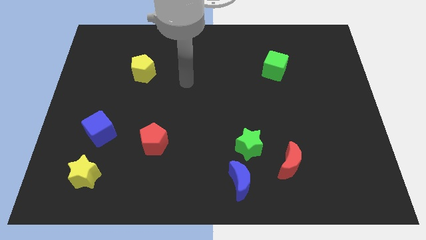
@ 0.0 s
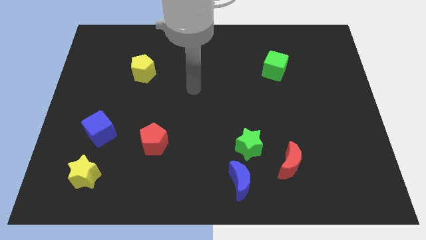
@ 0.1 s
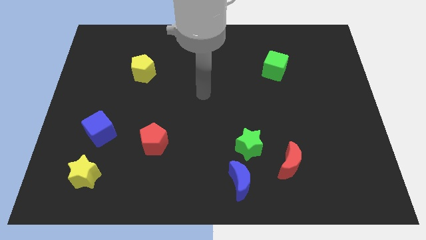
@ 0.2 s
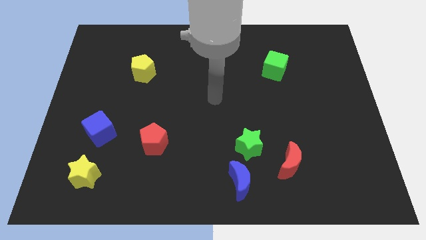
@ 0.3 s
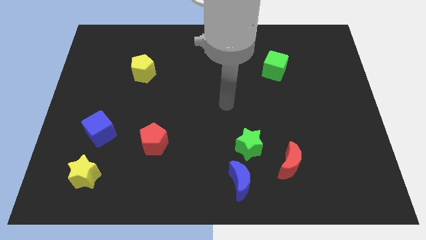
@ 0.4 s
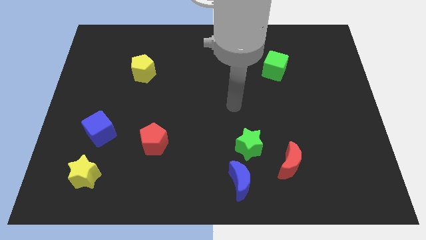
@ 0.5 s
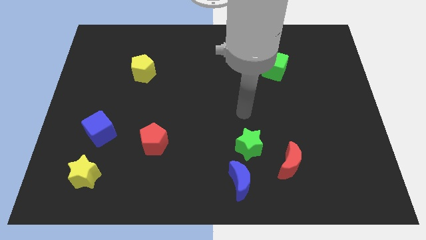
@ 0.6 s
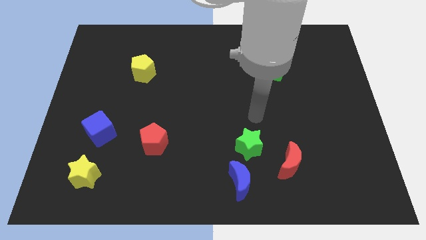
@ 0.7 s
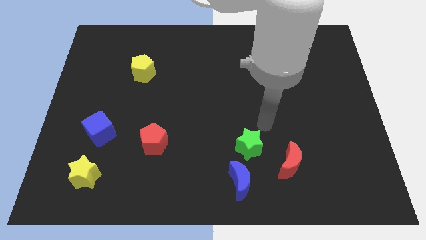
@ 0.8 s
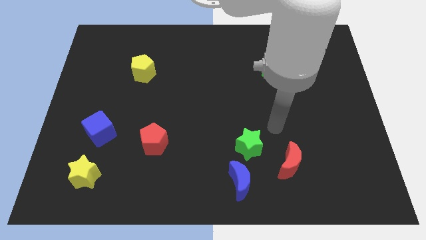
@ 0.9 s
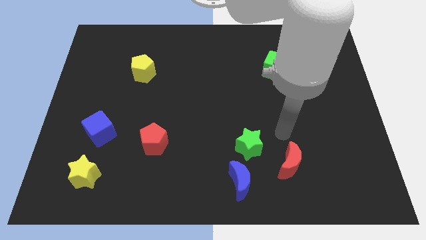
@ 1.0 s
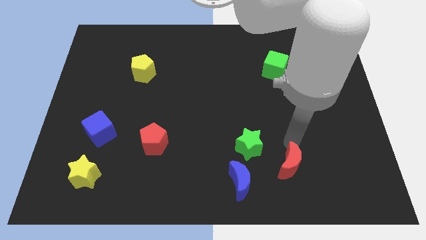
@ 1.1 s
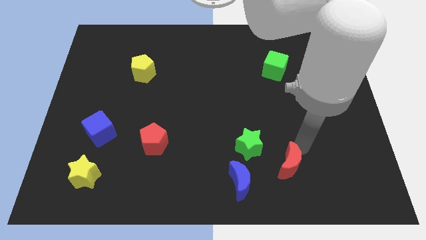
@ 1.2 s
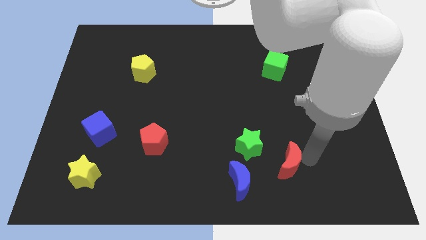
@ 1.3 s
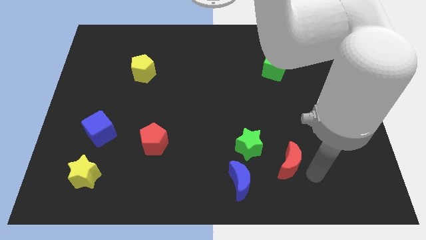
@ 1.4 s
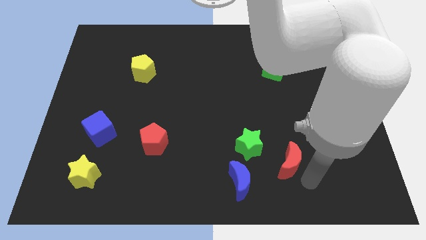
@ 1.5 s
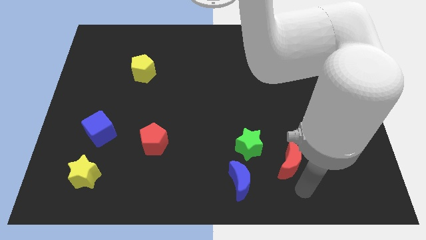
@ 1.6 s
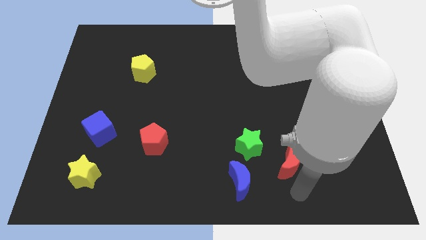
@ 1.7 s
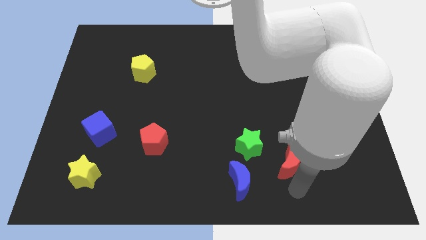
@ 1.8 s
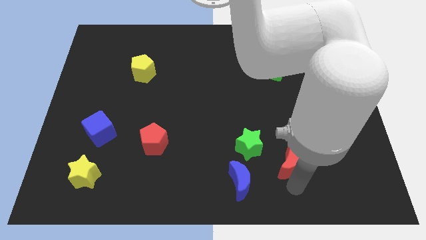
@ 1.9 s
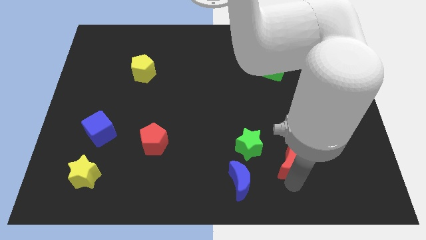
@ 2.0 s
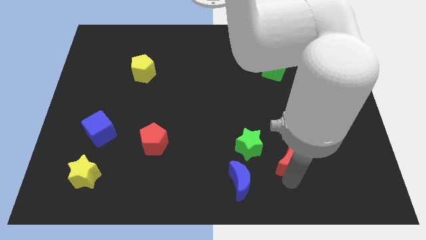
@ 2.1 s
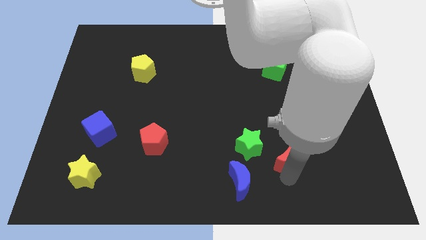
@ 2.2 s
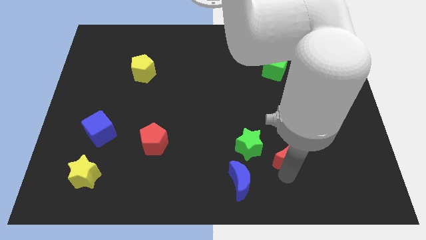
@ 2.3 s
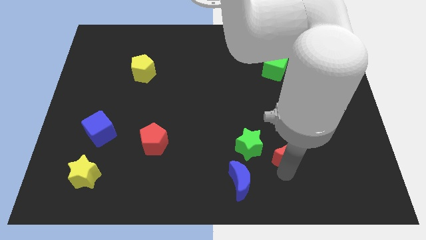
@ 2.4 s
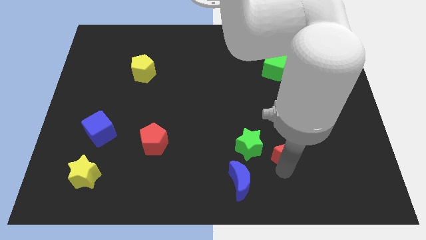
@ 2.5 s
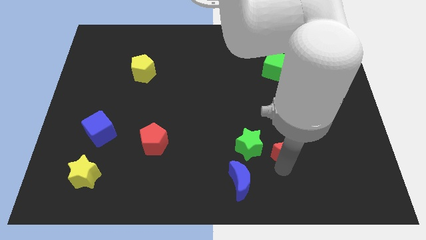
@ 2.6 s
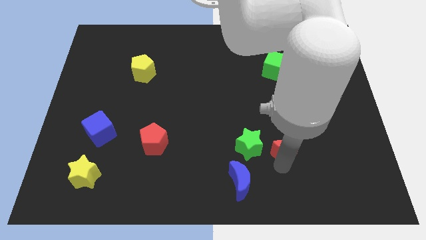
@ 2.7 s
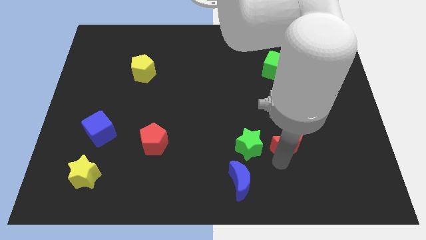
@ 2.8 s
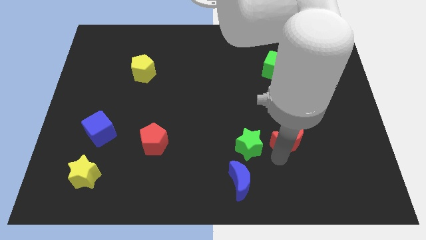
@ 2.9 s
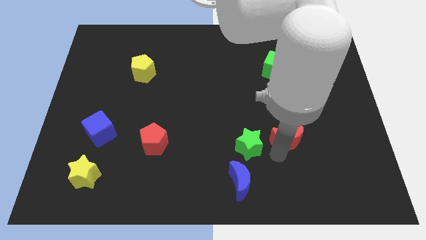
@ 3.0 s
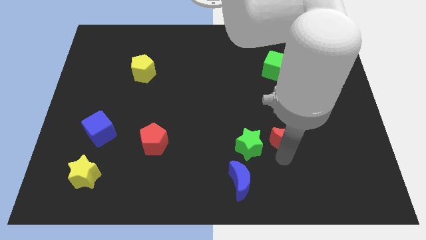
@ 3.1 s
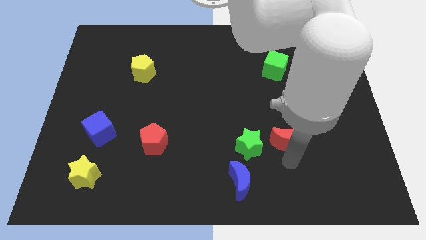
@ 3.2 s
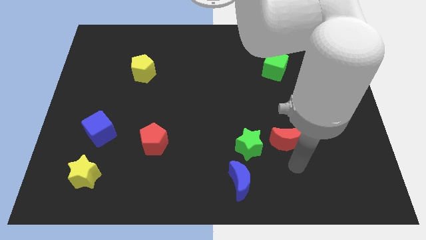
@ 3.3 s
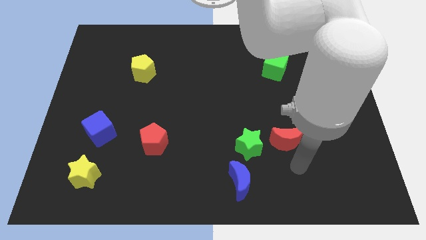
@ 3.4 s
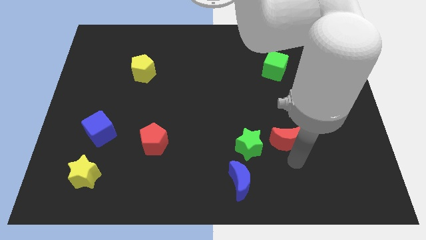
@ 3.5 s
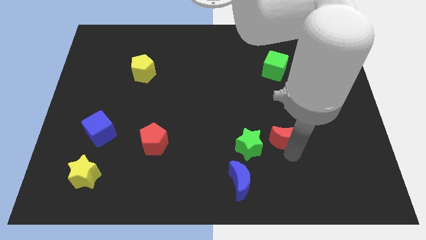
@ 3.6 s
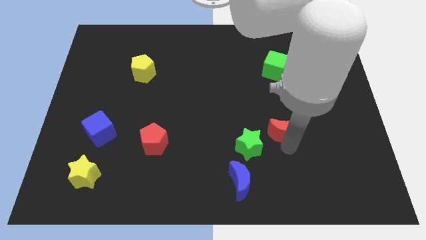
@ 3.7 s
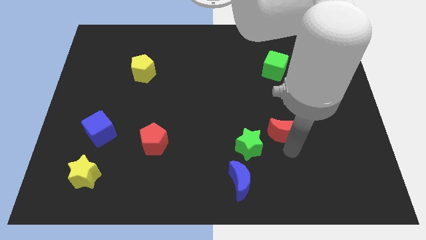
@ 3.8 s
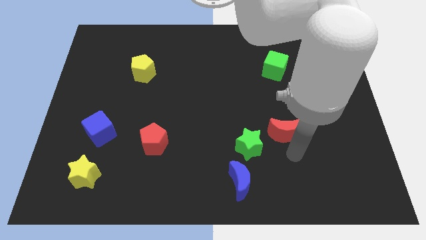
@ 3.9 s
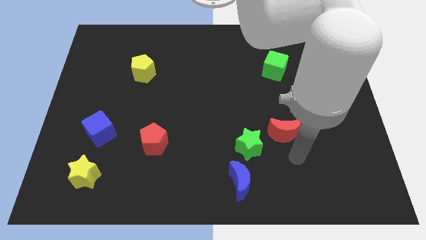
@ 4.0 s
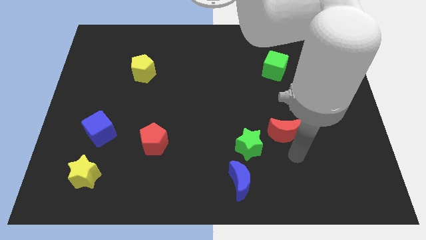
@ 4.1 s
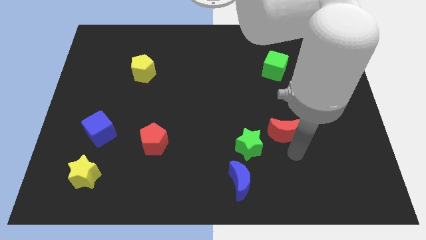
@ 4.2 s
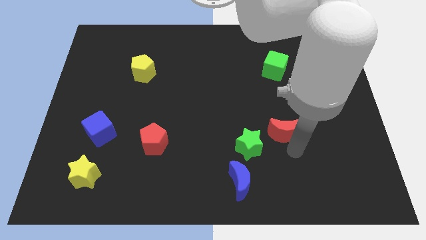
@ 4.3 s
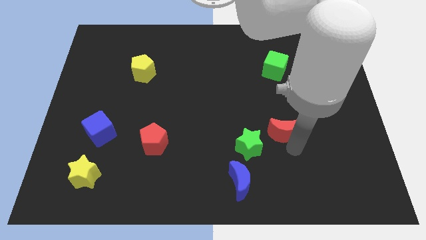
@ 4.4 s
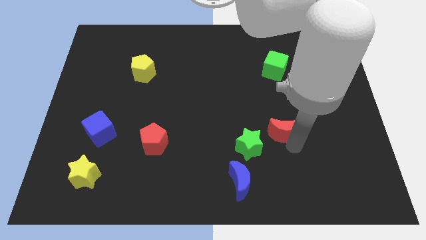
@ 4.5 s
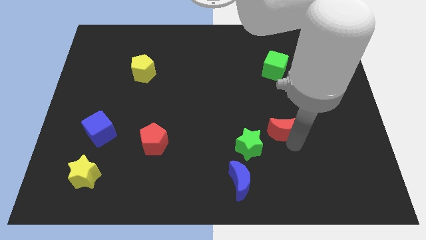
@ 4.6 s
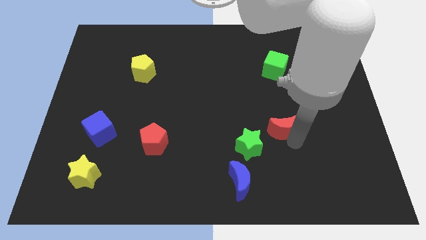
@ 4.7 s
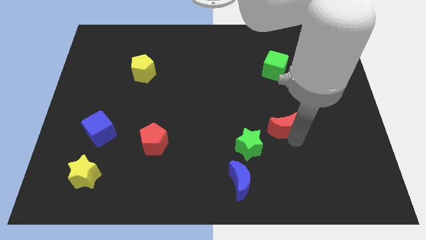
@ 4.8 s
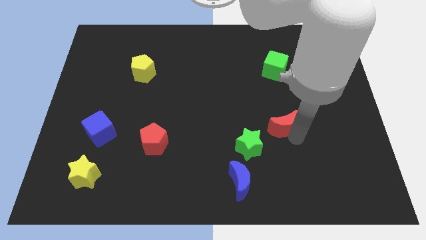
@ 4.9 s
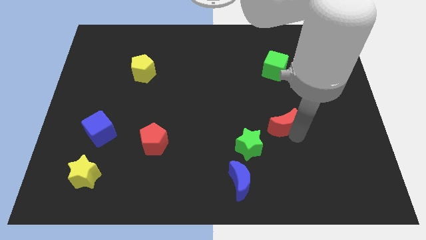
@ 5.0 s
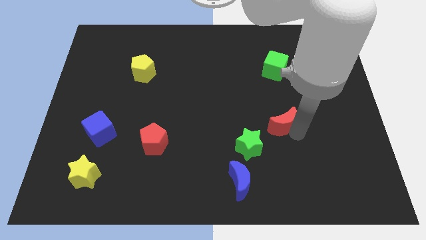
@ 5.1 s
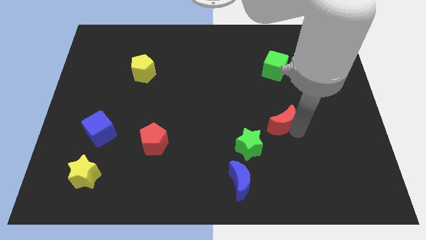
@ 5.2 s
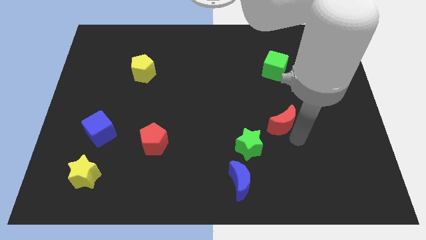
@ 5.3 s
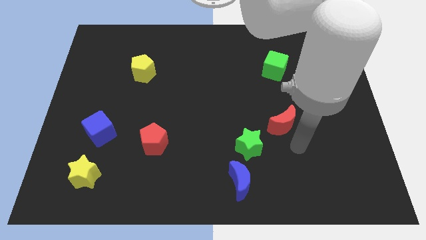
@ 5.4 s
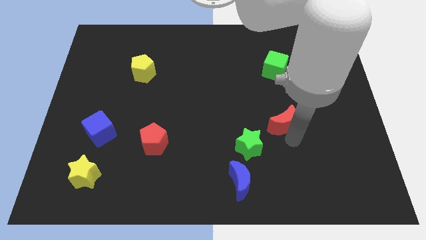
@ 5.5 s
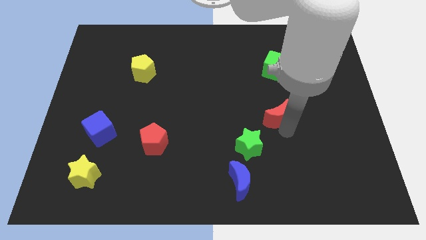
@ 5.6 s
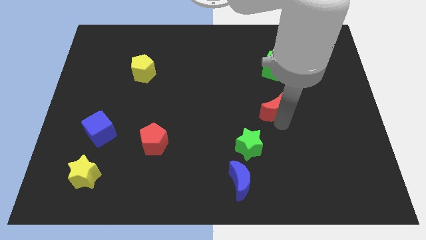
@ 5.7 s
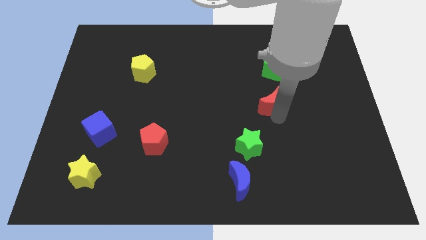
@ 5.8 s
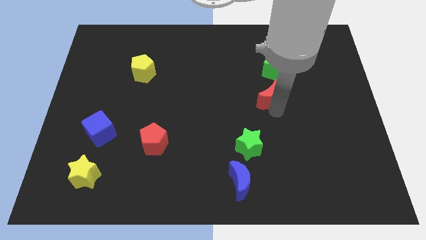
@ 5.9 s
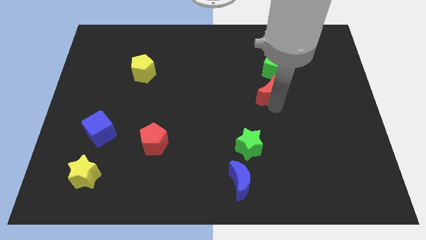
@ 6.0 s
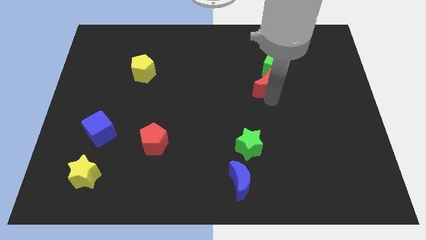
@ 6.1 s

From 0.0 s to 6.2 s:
slide the red moon up

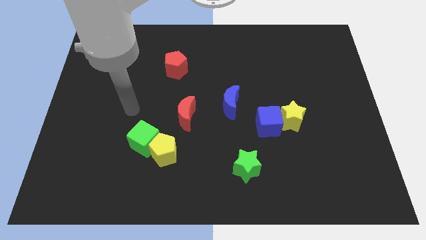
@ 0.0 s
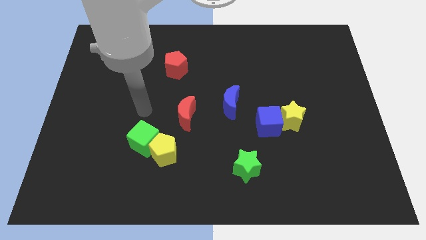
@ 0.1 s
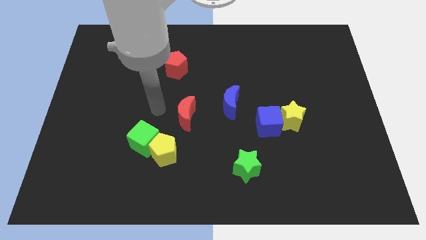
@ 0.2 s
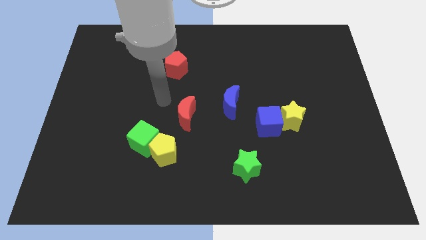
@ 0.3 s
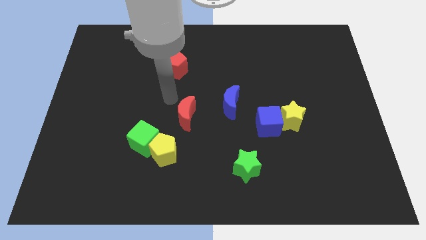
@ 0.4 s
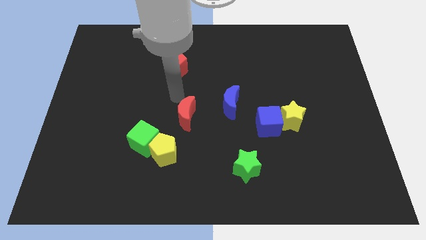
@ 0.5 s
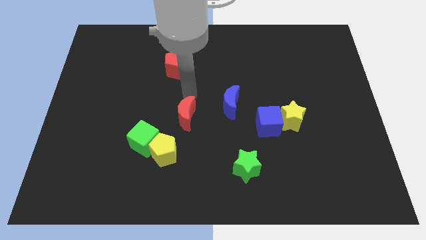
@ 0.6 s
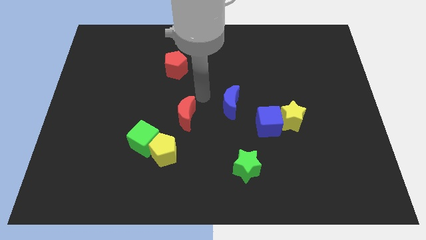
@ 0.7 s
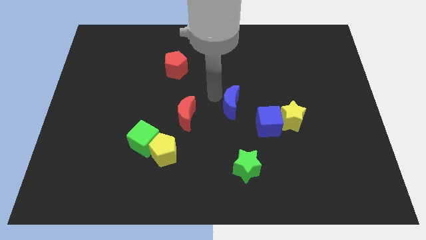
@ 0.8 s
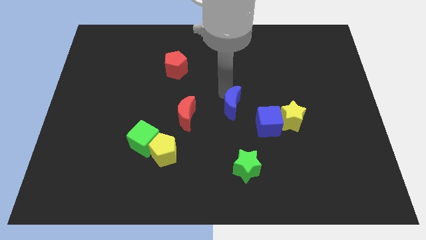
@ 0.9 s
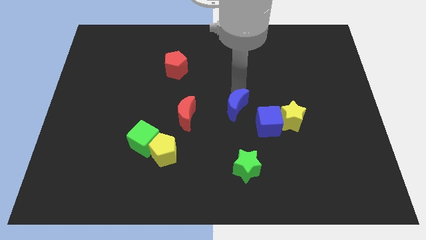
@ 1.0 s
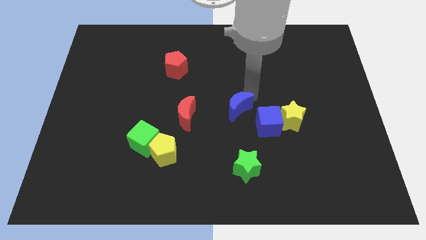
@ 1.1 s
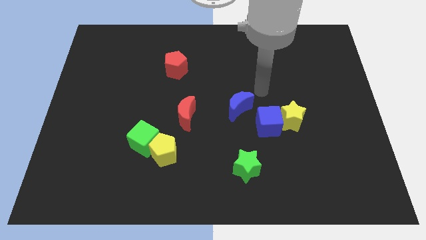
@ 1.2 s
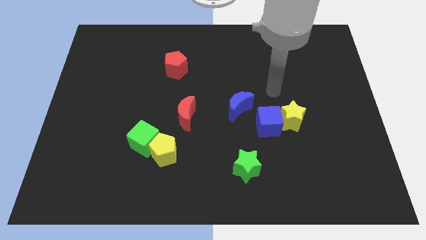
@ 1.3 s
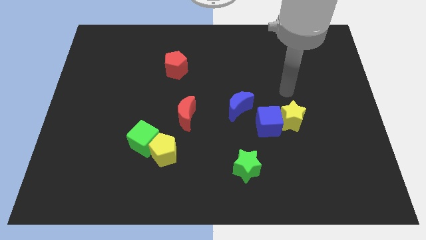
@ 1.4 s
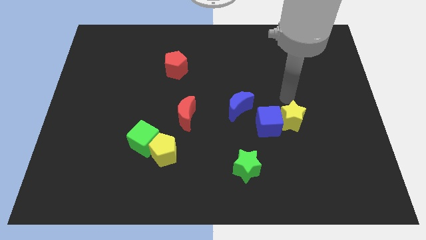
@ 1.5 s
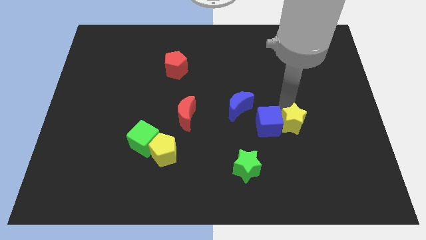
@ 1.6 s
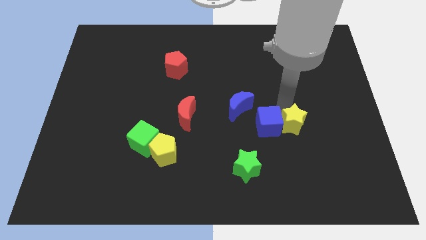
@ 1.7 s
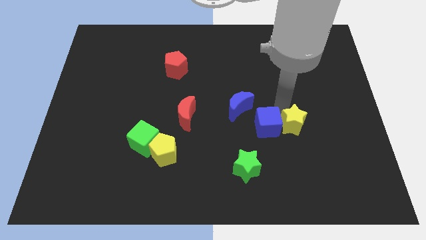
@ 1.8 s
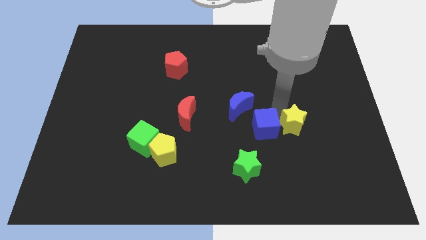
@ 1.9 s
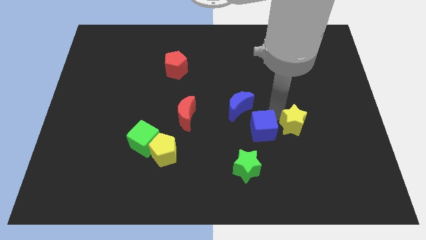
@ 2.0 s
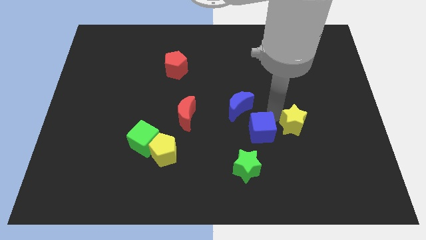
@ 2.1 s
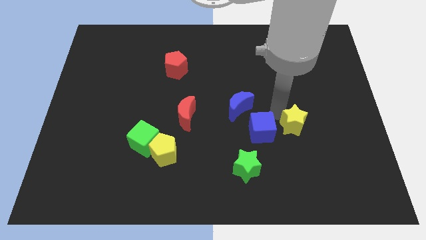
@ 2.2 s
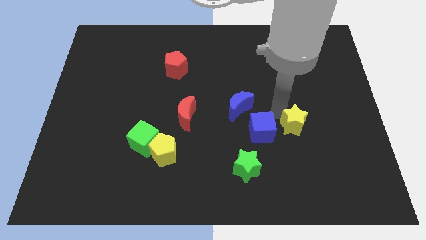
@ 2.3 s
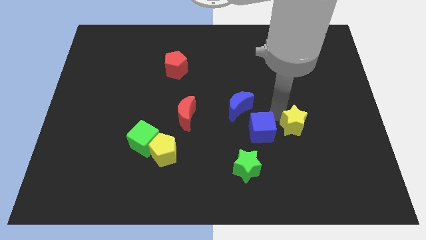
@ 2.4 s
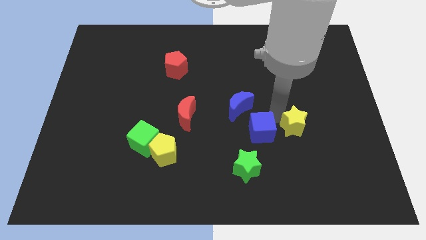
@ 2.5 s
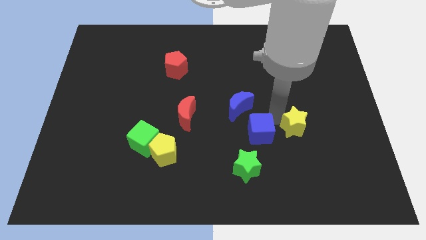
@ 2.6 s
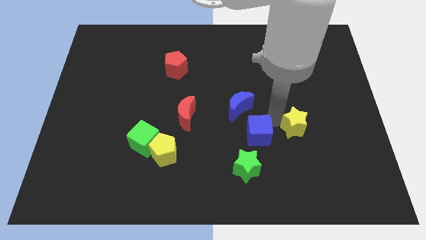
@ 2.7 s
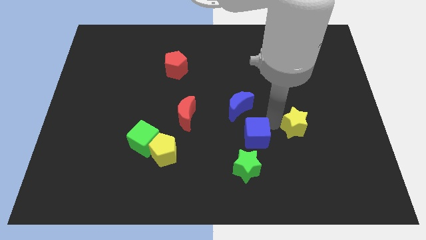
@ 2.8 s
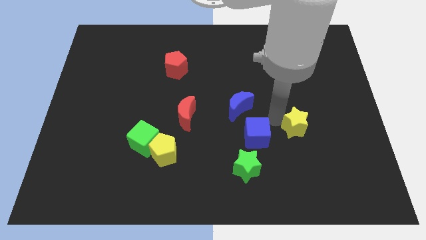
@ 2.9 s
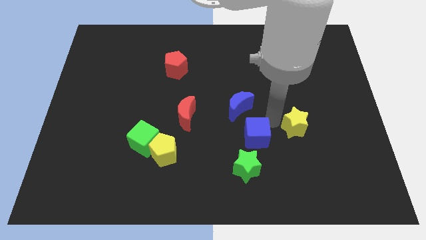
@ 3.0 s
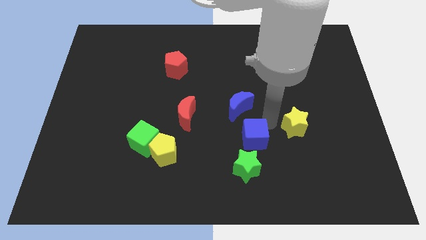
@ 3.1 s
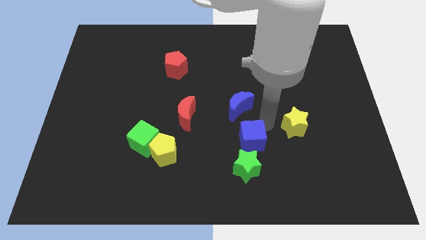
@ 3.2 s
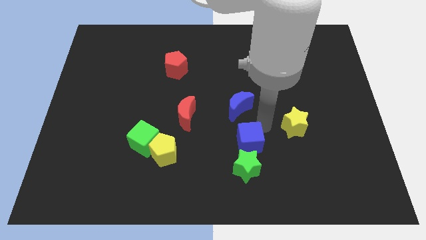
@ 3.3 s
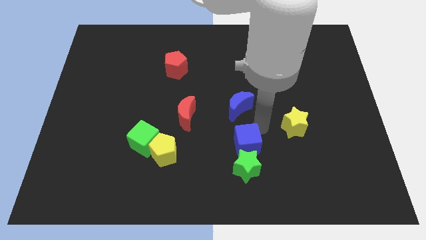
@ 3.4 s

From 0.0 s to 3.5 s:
slide the blue cube somewhat downwards and left
